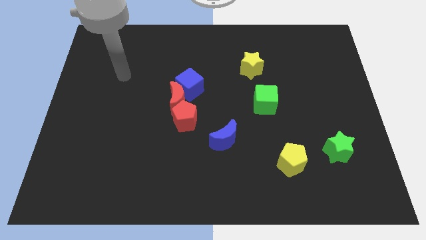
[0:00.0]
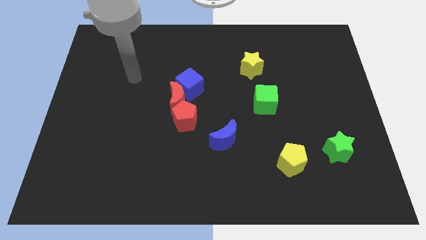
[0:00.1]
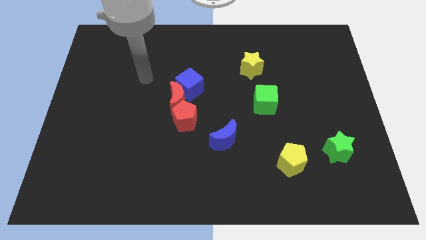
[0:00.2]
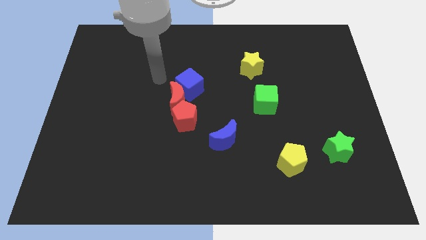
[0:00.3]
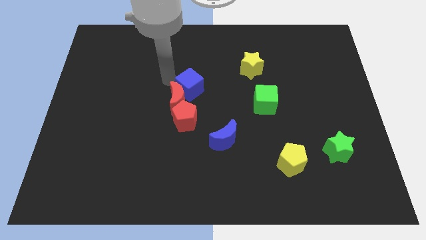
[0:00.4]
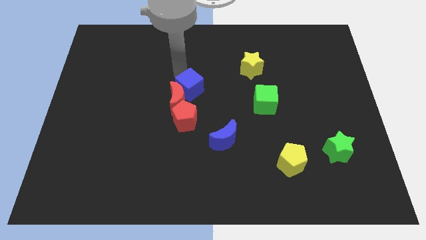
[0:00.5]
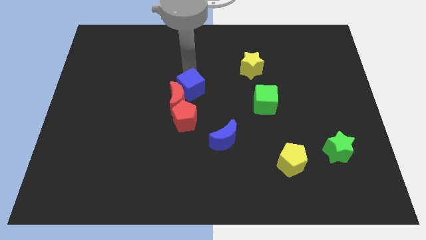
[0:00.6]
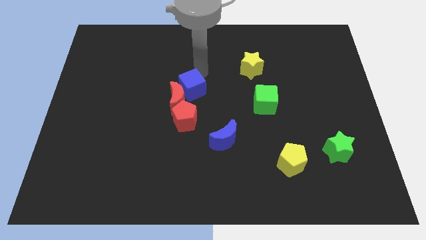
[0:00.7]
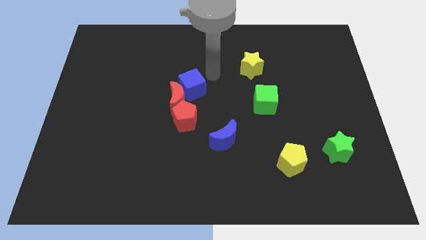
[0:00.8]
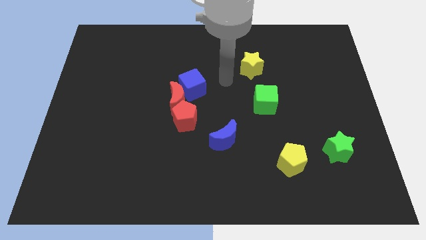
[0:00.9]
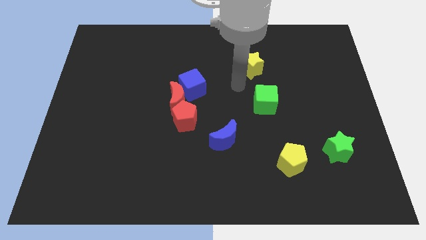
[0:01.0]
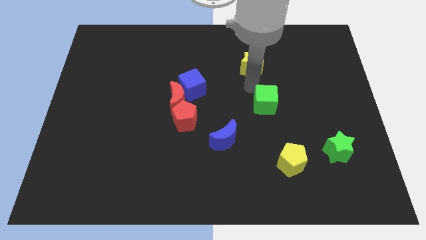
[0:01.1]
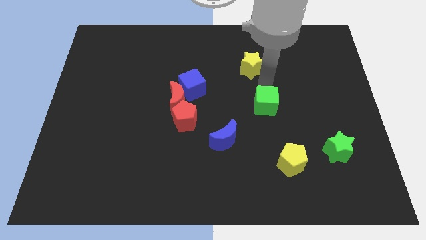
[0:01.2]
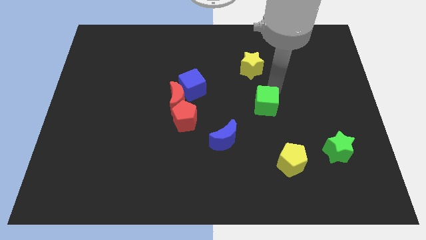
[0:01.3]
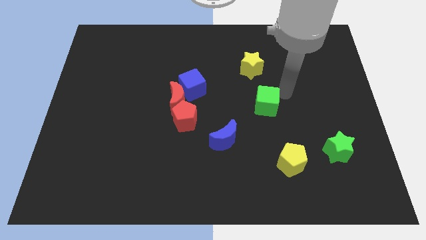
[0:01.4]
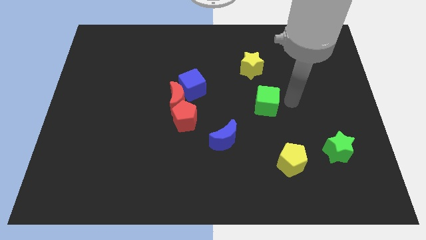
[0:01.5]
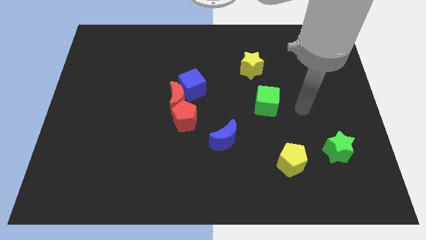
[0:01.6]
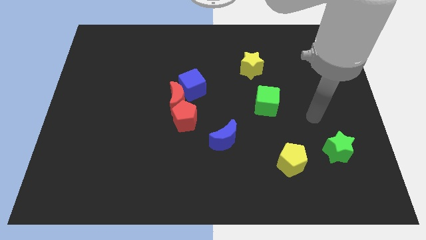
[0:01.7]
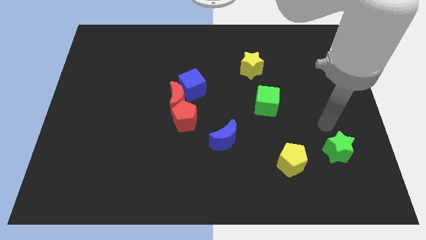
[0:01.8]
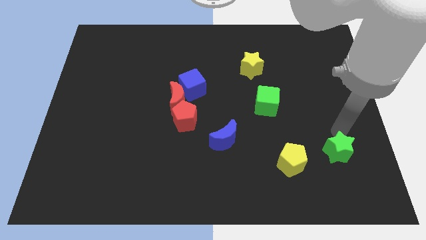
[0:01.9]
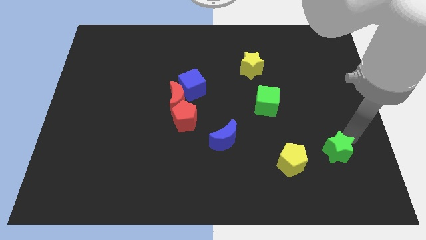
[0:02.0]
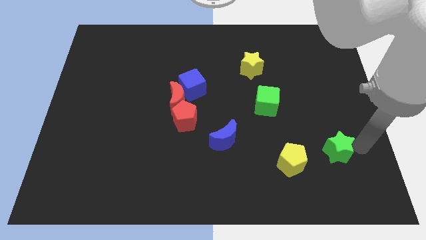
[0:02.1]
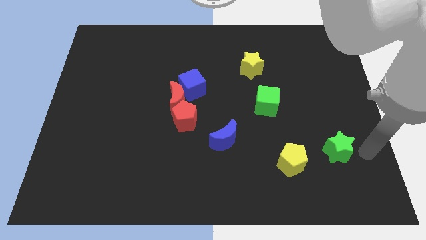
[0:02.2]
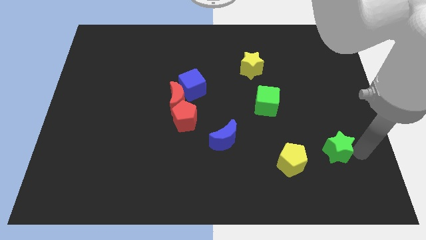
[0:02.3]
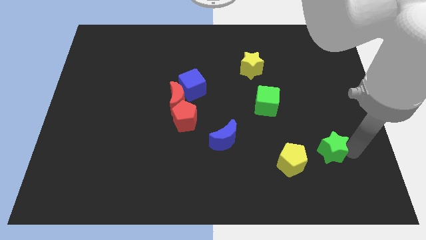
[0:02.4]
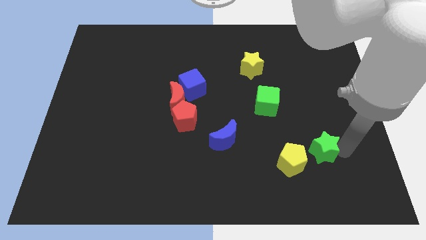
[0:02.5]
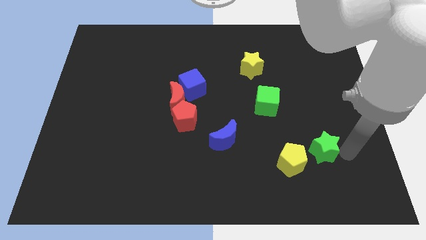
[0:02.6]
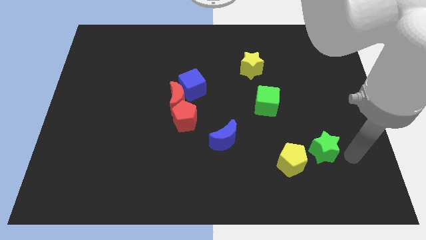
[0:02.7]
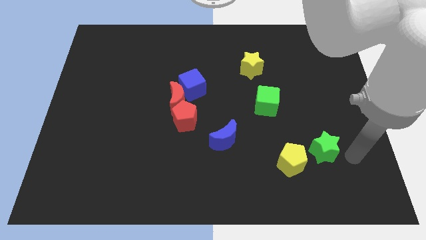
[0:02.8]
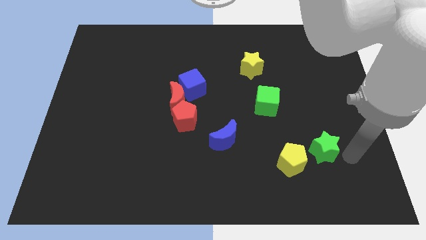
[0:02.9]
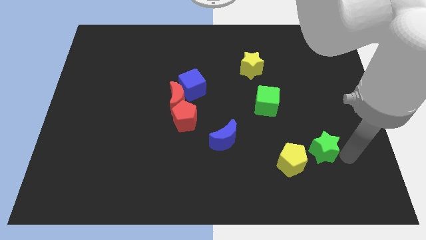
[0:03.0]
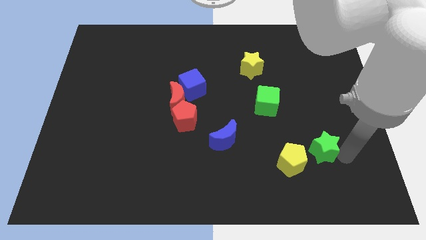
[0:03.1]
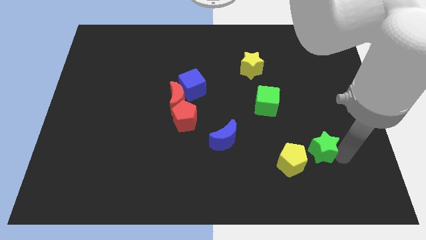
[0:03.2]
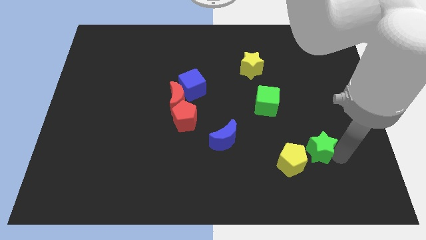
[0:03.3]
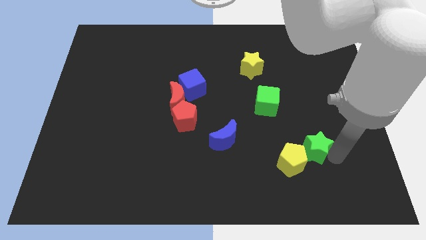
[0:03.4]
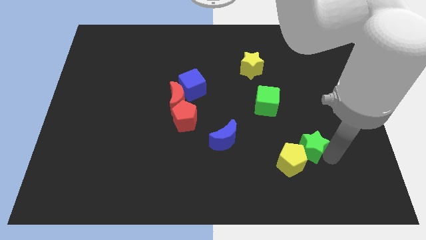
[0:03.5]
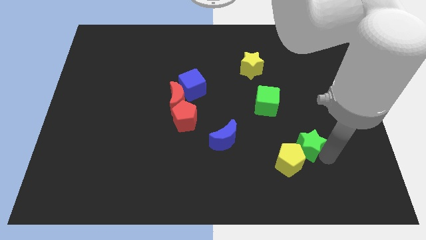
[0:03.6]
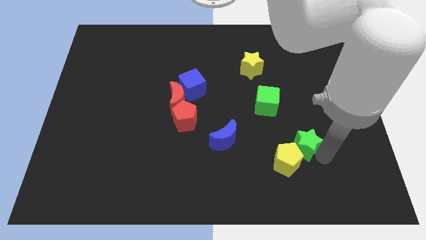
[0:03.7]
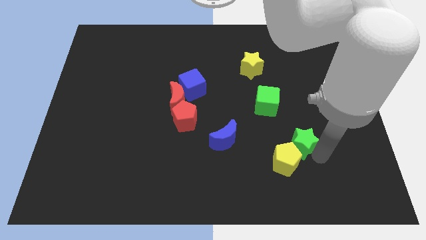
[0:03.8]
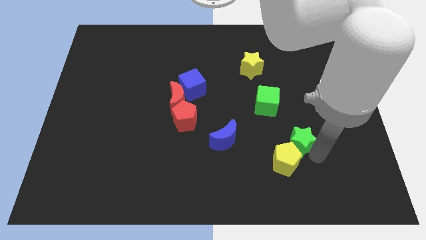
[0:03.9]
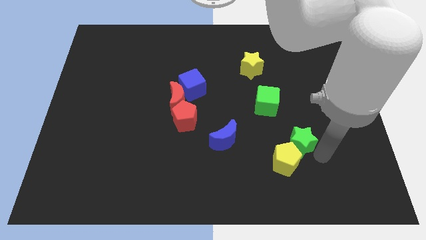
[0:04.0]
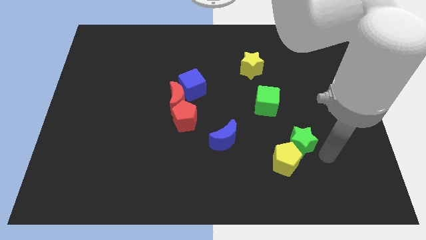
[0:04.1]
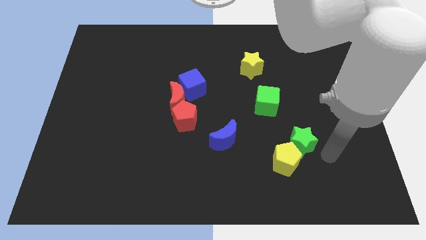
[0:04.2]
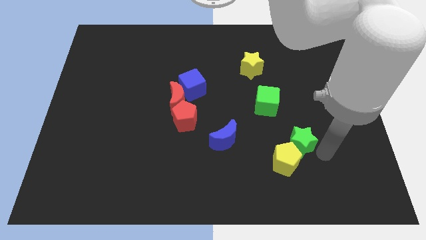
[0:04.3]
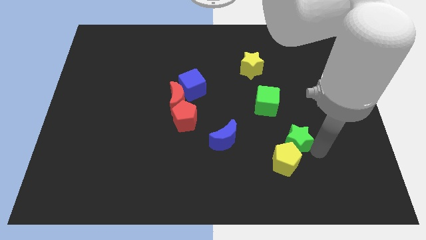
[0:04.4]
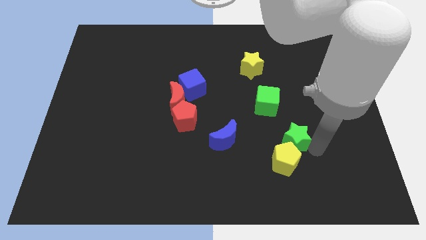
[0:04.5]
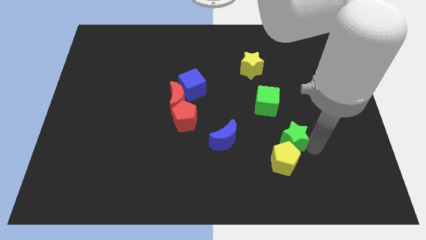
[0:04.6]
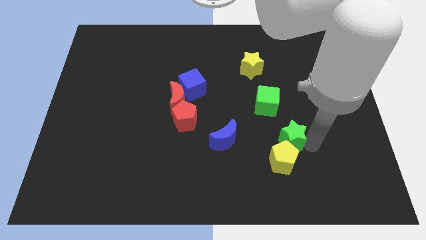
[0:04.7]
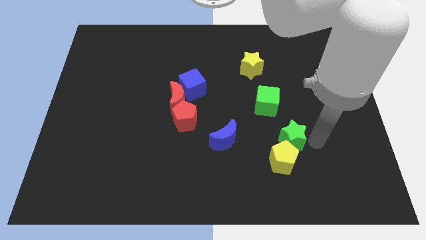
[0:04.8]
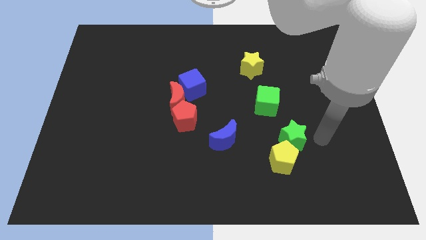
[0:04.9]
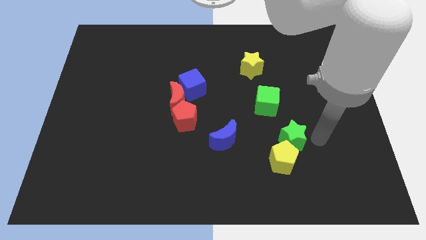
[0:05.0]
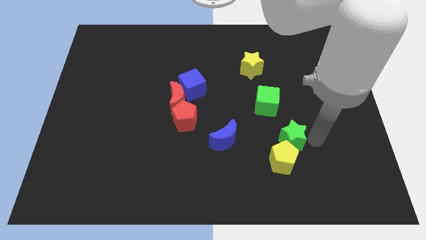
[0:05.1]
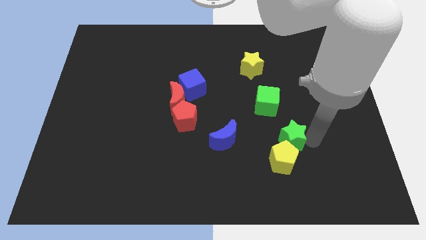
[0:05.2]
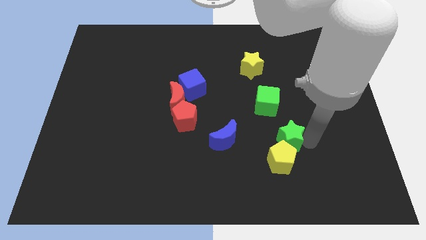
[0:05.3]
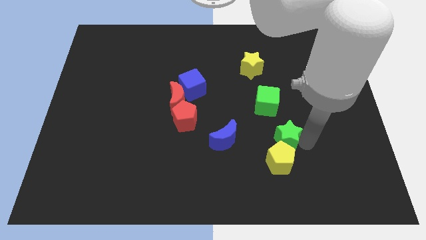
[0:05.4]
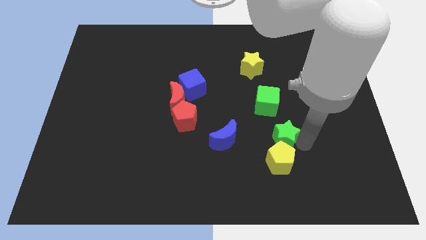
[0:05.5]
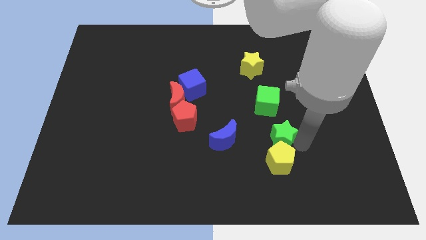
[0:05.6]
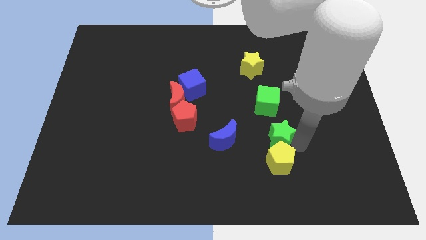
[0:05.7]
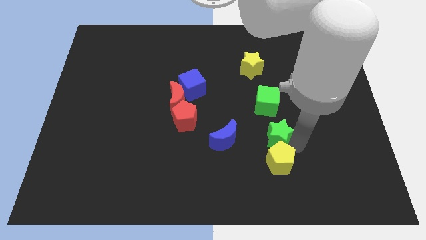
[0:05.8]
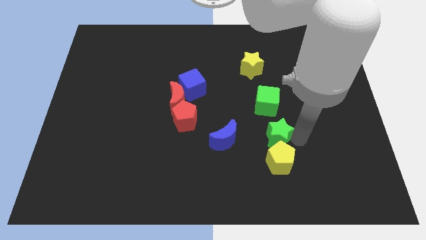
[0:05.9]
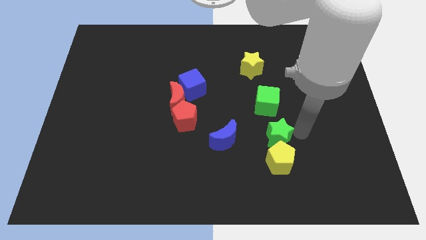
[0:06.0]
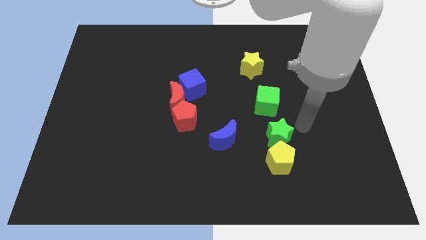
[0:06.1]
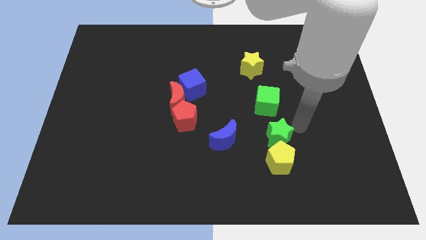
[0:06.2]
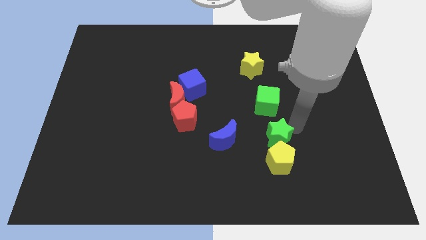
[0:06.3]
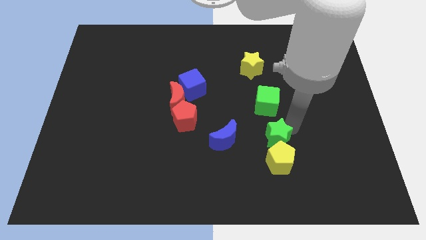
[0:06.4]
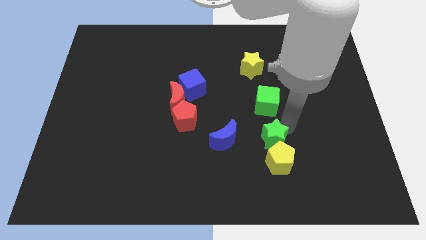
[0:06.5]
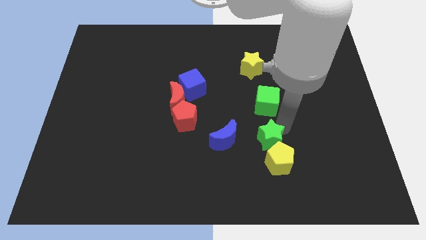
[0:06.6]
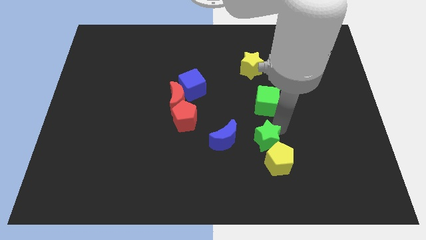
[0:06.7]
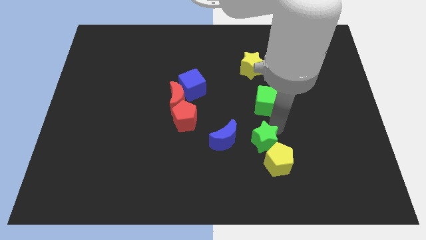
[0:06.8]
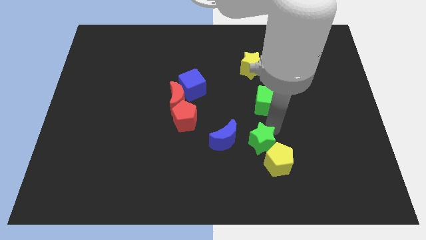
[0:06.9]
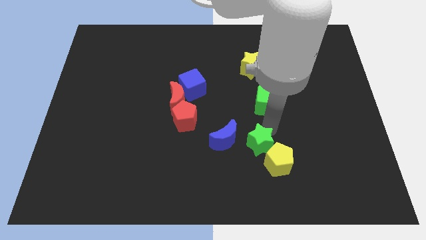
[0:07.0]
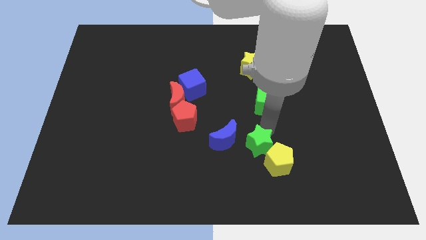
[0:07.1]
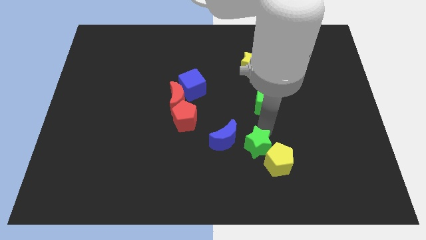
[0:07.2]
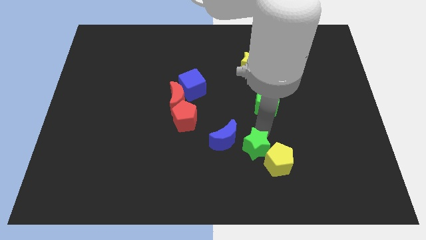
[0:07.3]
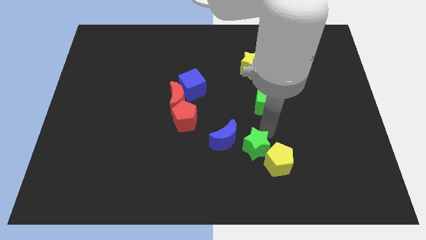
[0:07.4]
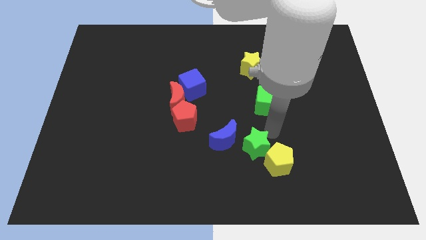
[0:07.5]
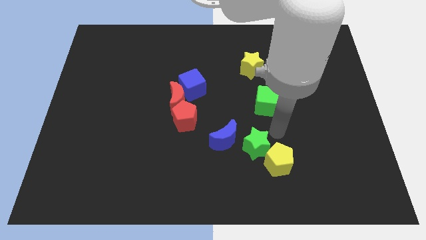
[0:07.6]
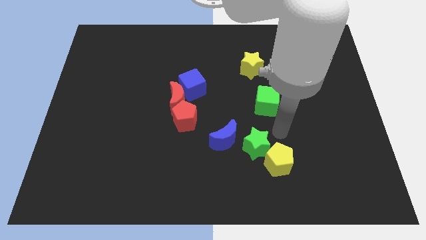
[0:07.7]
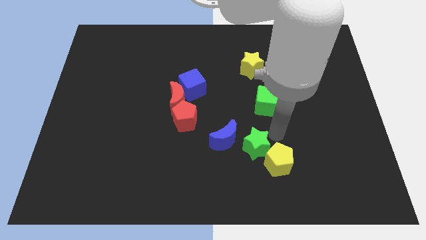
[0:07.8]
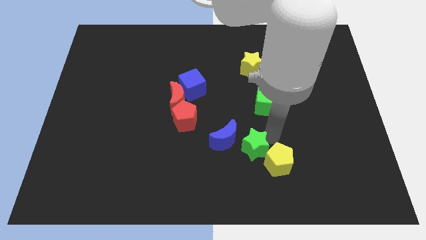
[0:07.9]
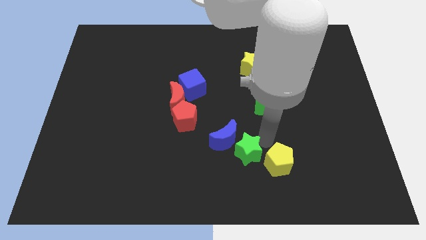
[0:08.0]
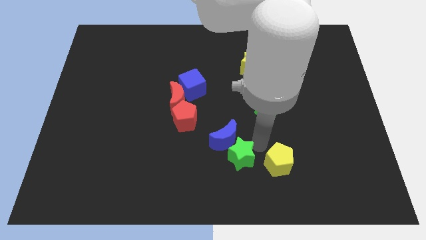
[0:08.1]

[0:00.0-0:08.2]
move the green star left
